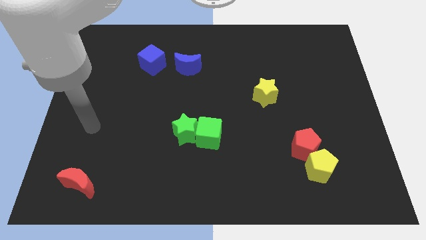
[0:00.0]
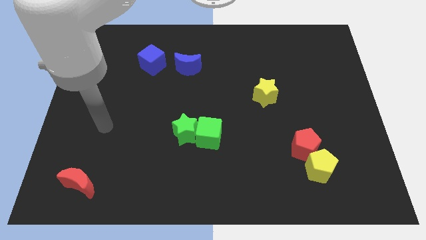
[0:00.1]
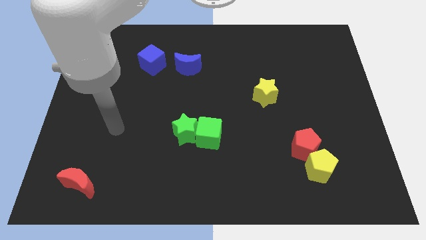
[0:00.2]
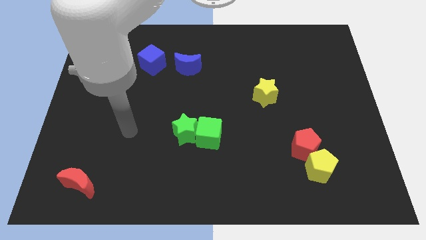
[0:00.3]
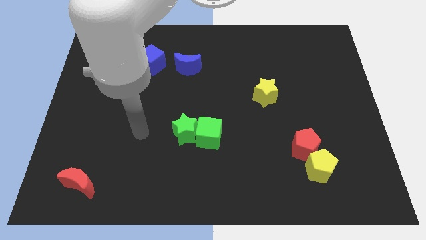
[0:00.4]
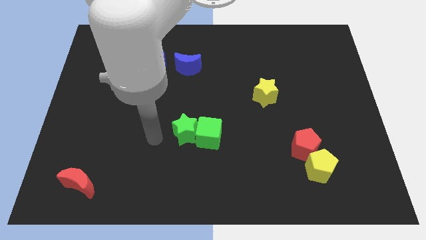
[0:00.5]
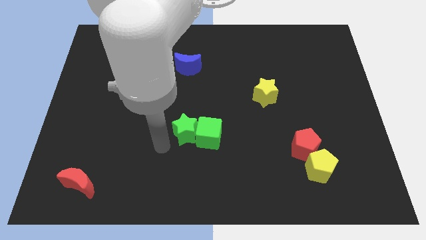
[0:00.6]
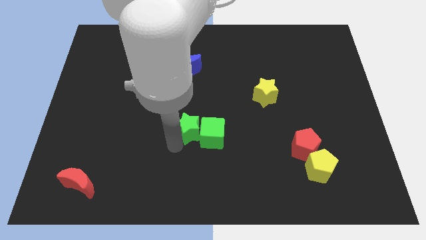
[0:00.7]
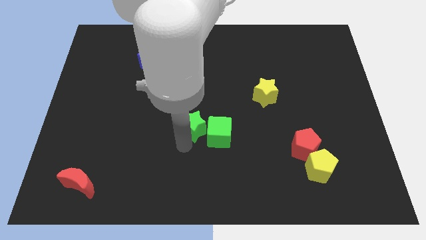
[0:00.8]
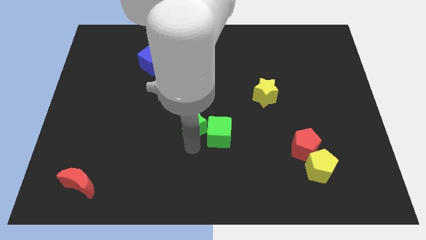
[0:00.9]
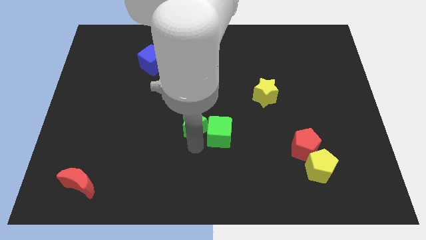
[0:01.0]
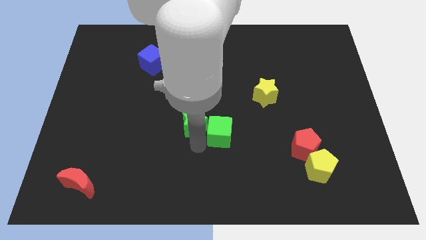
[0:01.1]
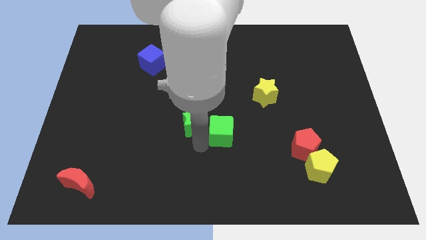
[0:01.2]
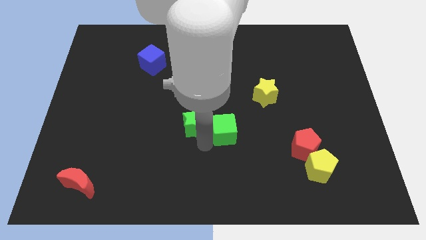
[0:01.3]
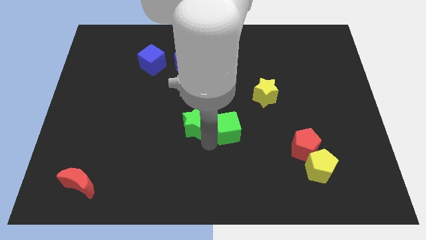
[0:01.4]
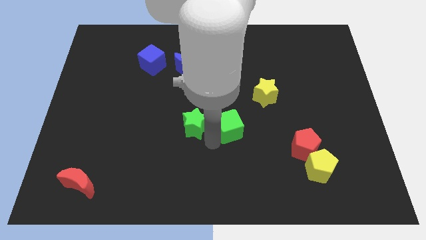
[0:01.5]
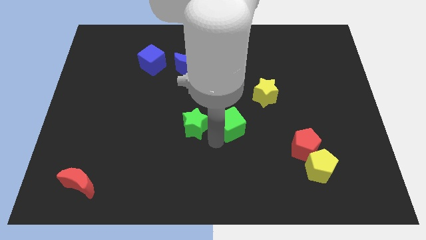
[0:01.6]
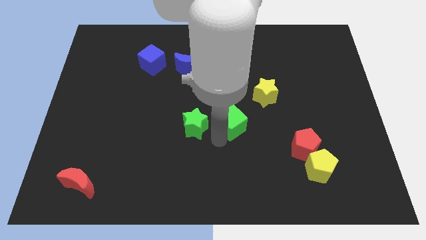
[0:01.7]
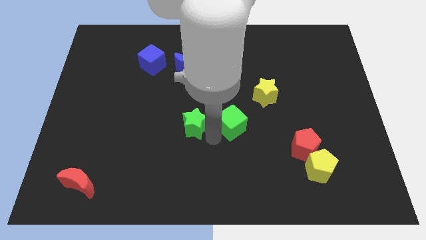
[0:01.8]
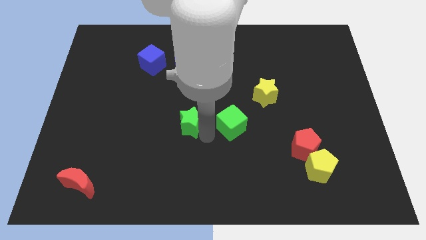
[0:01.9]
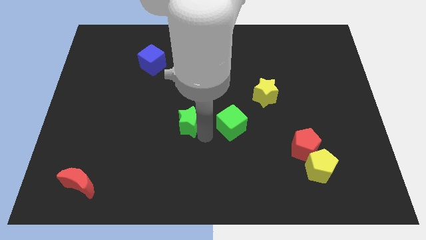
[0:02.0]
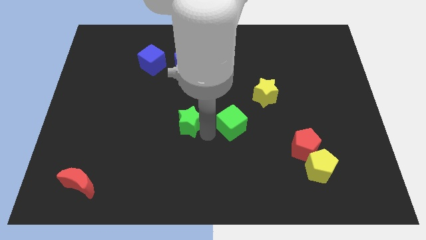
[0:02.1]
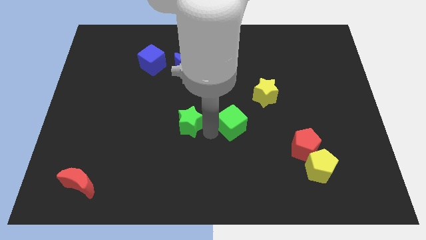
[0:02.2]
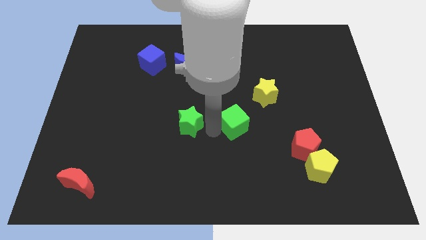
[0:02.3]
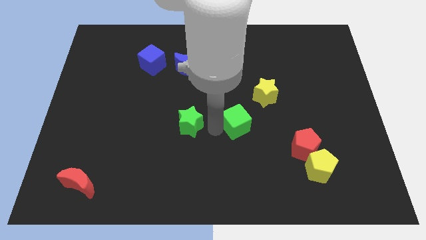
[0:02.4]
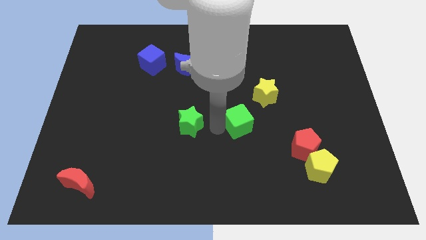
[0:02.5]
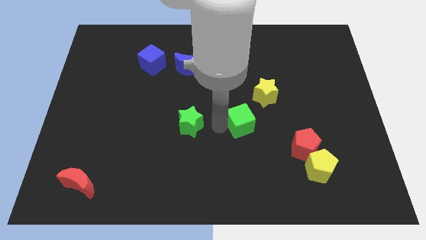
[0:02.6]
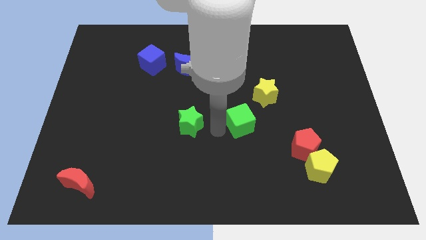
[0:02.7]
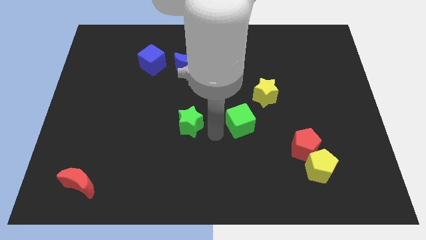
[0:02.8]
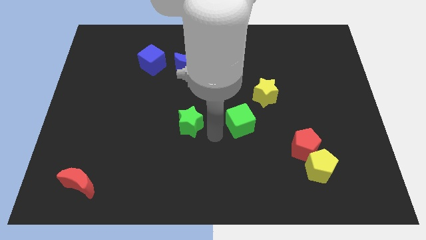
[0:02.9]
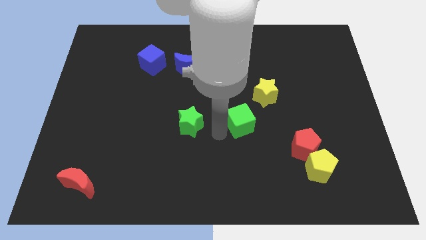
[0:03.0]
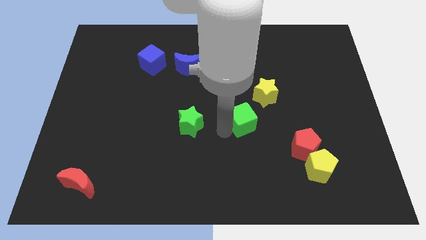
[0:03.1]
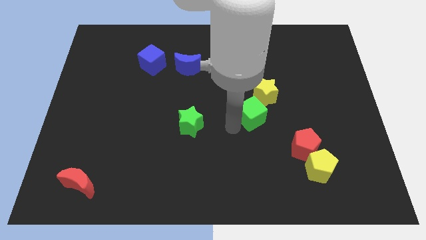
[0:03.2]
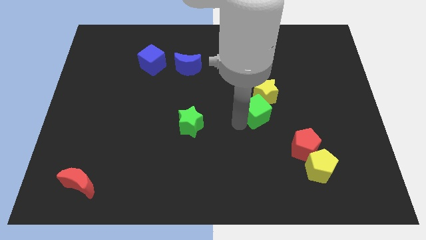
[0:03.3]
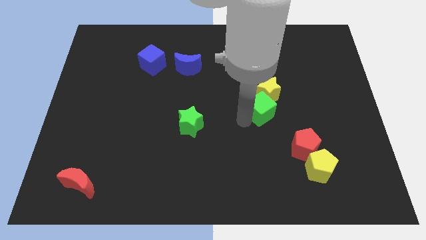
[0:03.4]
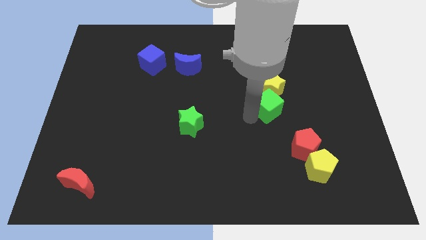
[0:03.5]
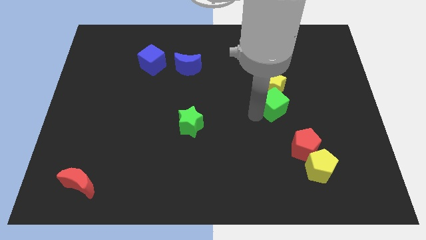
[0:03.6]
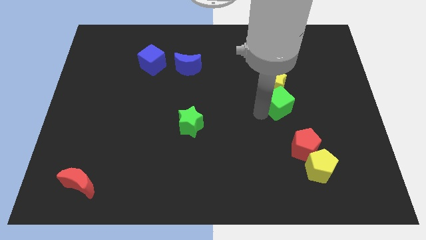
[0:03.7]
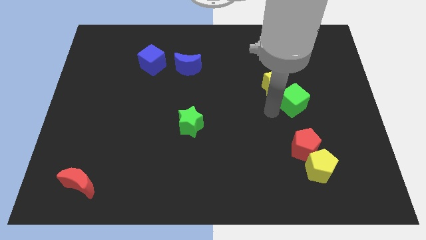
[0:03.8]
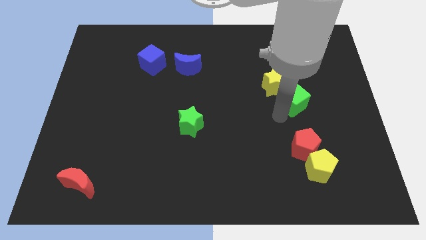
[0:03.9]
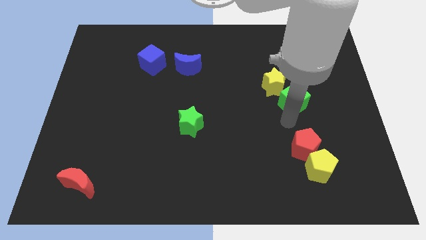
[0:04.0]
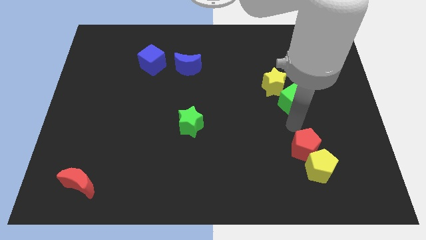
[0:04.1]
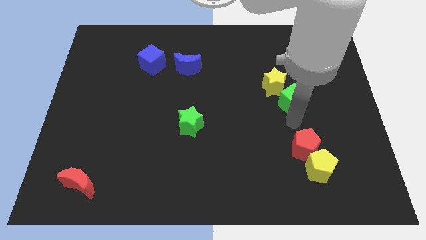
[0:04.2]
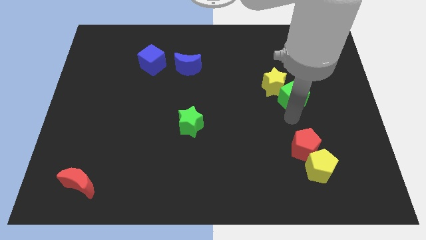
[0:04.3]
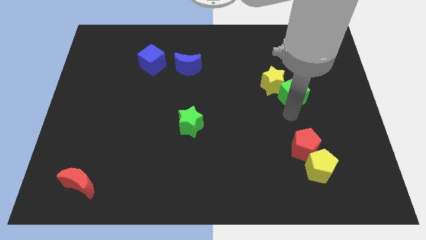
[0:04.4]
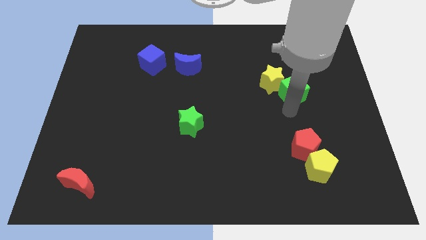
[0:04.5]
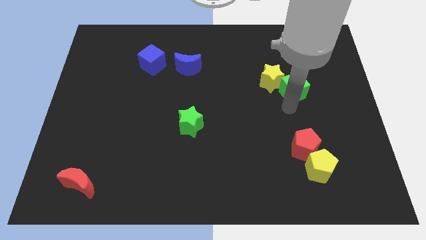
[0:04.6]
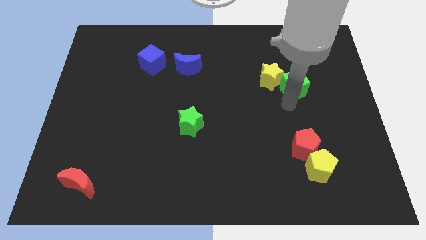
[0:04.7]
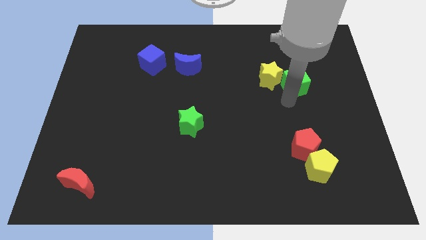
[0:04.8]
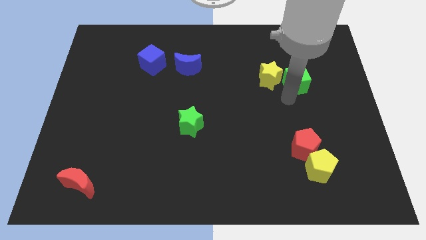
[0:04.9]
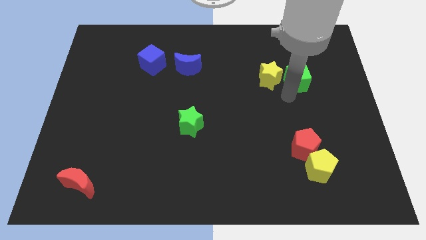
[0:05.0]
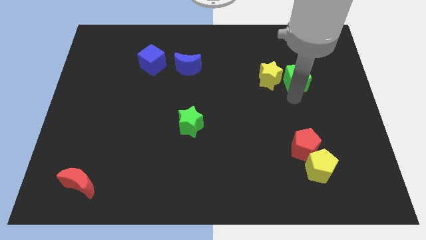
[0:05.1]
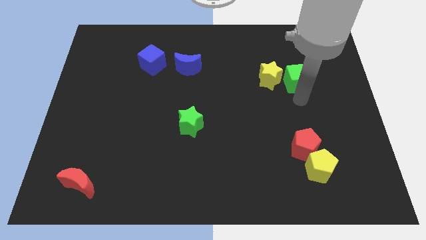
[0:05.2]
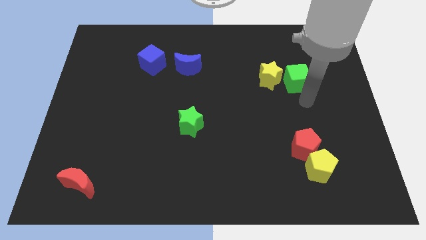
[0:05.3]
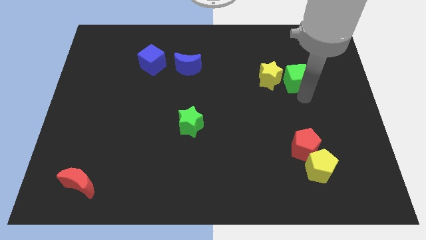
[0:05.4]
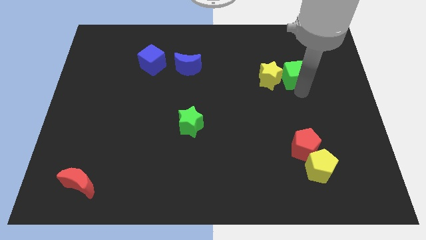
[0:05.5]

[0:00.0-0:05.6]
put the green cube to the top right of the yellow star

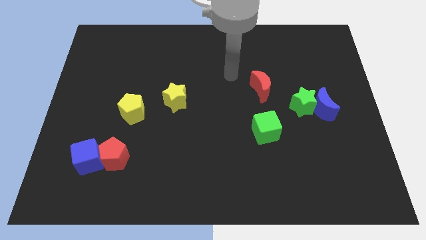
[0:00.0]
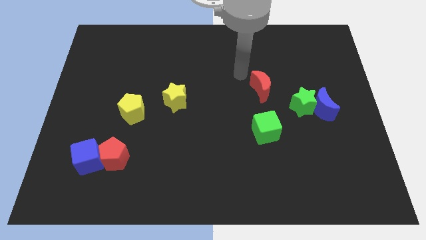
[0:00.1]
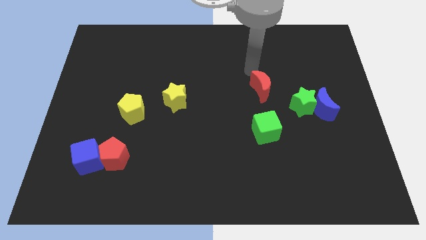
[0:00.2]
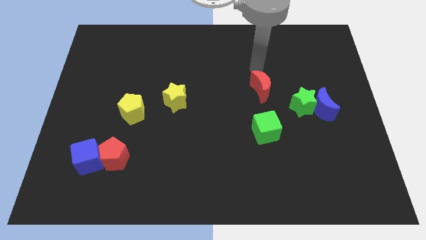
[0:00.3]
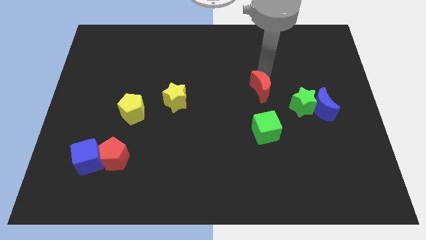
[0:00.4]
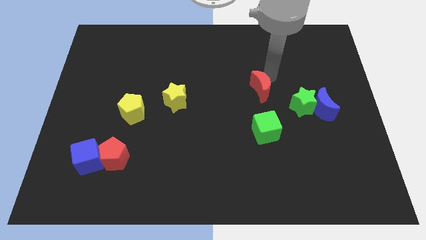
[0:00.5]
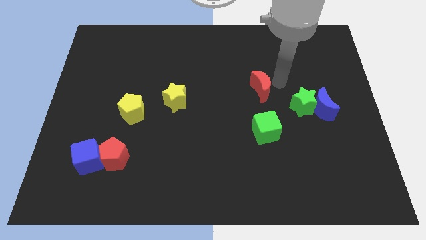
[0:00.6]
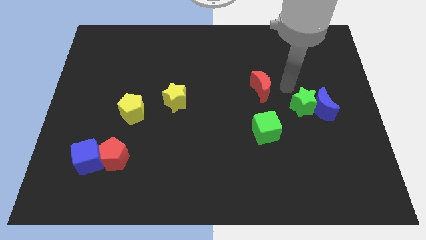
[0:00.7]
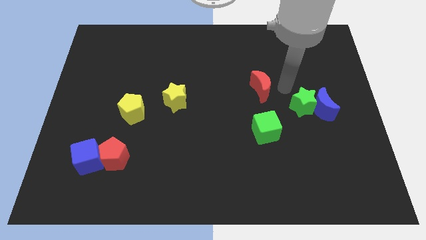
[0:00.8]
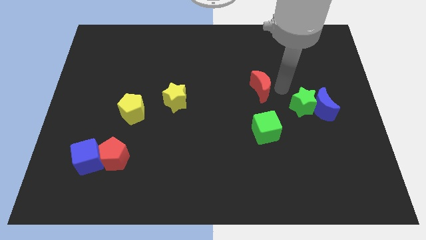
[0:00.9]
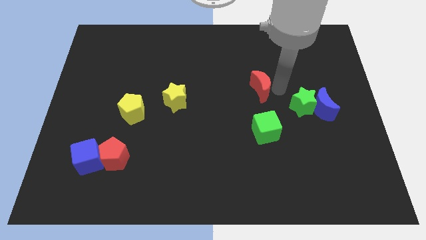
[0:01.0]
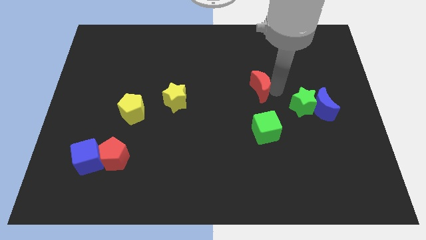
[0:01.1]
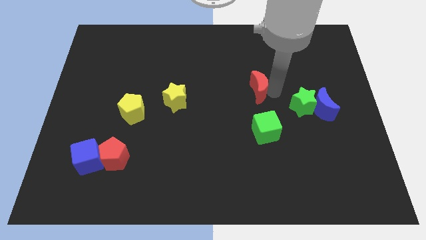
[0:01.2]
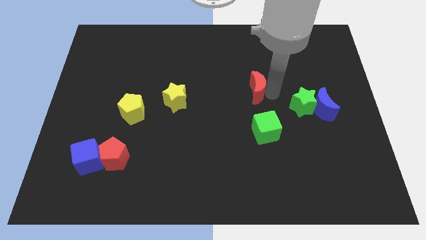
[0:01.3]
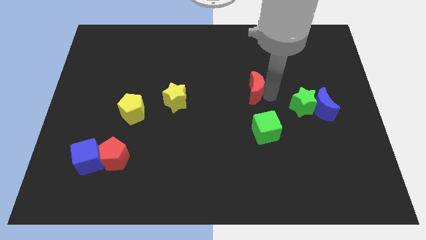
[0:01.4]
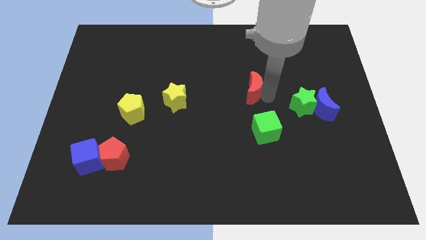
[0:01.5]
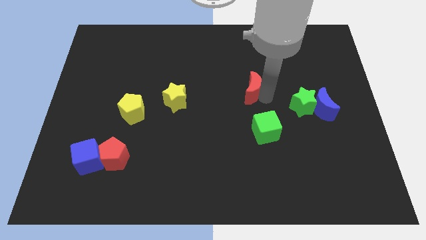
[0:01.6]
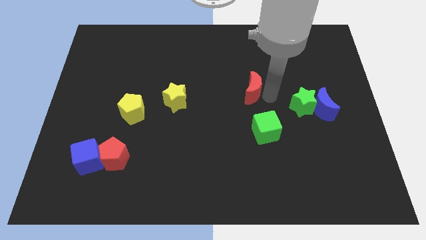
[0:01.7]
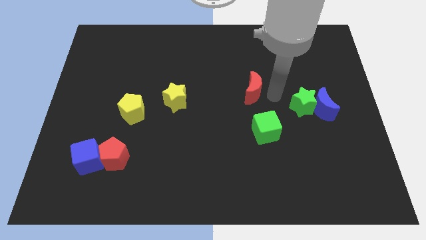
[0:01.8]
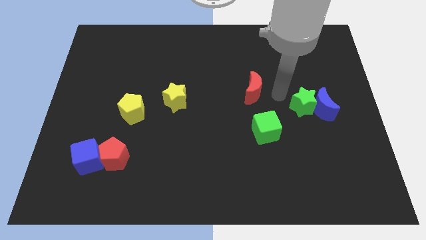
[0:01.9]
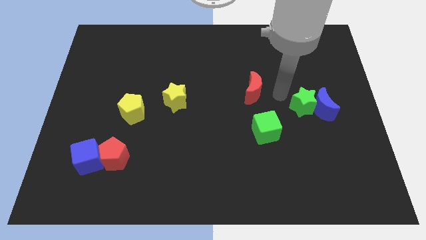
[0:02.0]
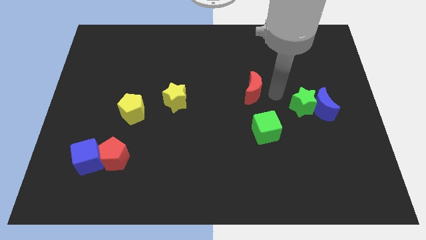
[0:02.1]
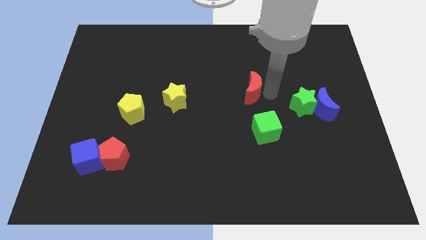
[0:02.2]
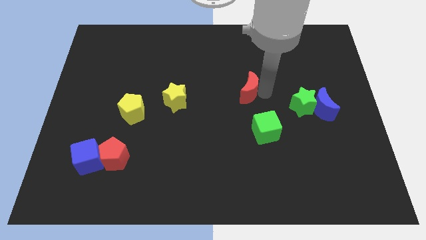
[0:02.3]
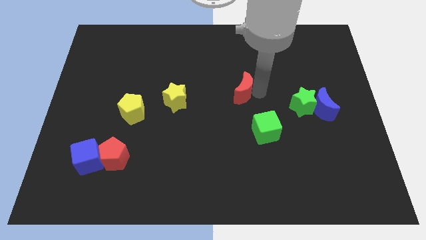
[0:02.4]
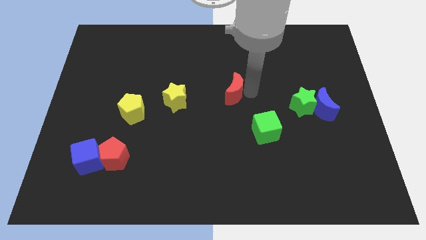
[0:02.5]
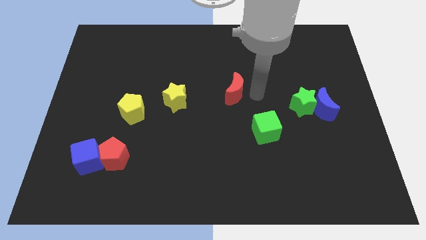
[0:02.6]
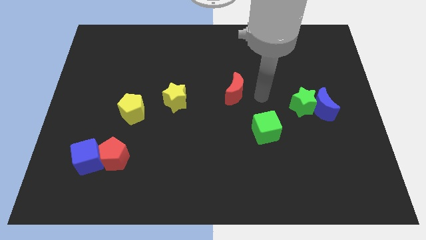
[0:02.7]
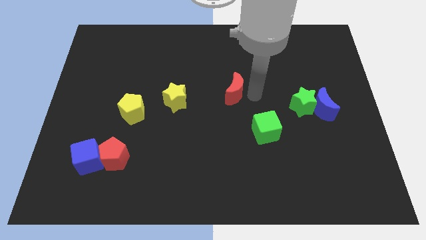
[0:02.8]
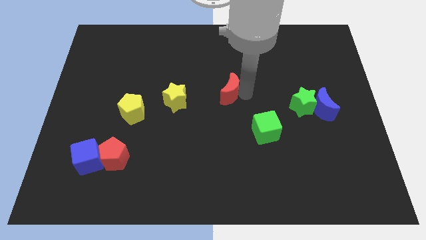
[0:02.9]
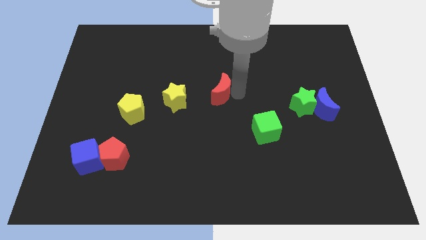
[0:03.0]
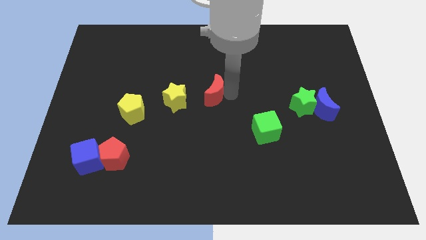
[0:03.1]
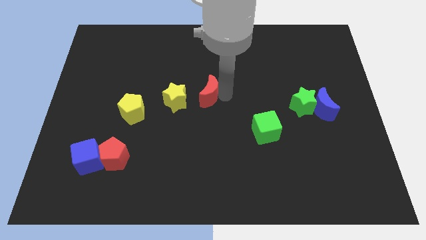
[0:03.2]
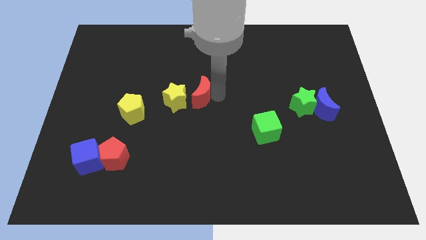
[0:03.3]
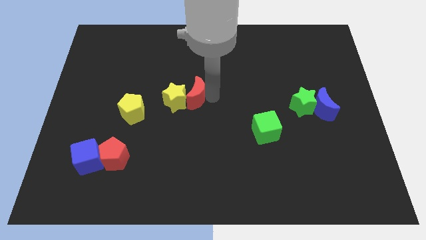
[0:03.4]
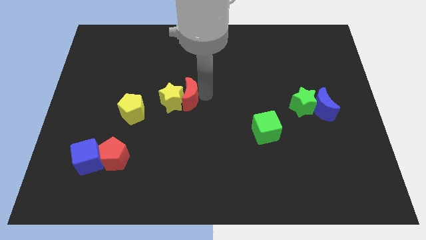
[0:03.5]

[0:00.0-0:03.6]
put the red moon just right of the yellow pentagon
